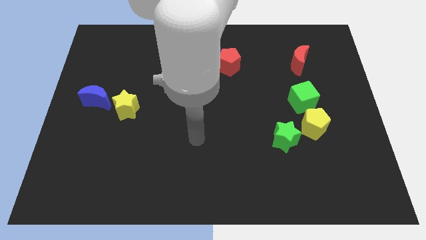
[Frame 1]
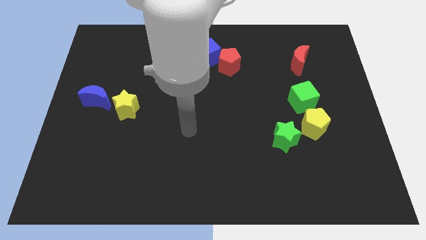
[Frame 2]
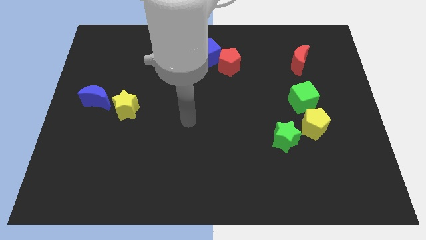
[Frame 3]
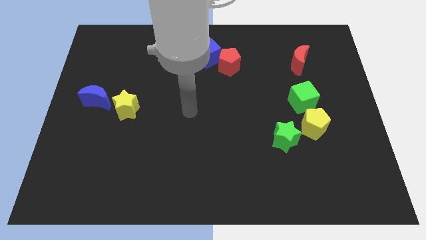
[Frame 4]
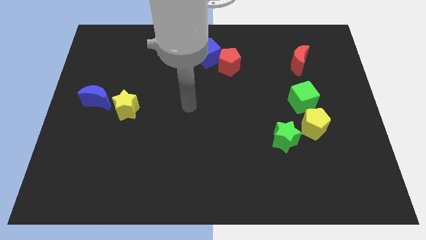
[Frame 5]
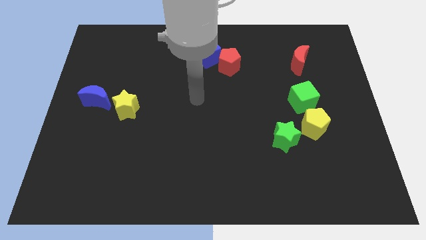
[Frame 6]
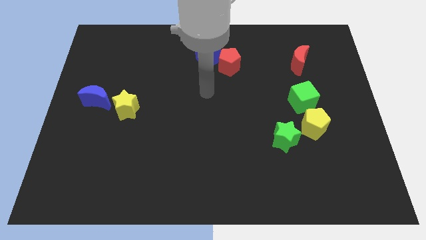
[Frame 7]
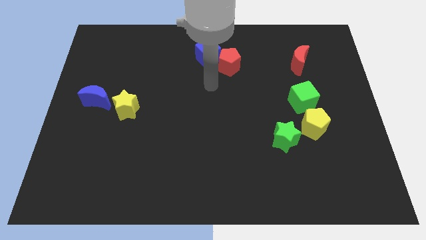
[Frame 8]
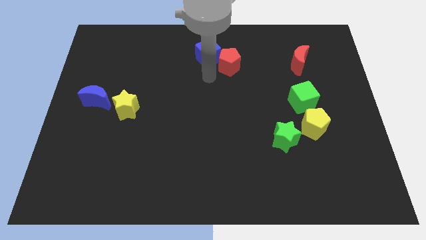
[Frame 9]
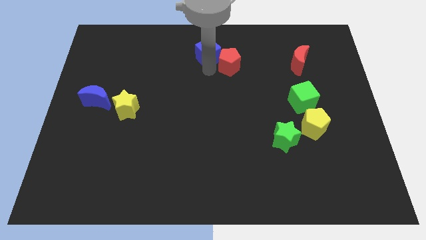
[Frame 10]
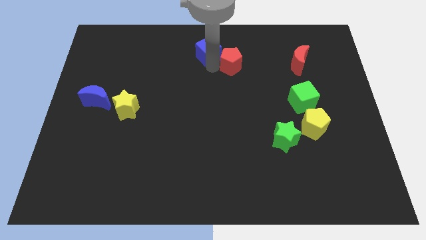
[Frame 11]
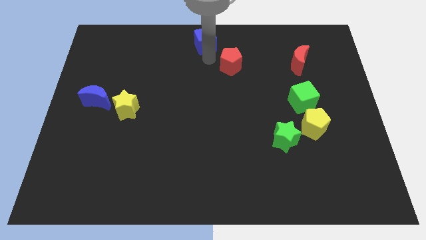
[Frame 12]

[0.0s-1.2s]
pull the red pentagon apart from the blue cube

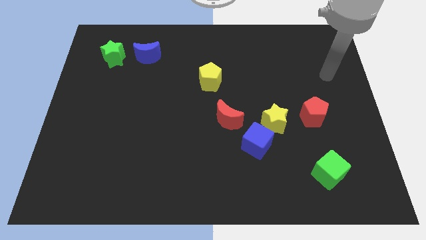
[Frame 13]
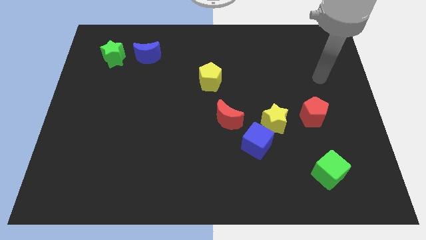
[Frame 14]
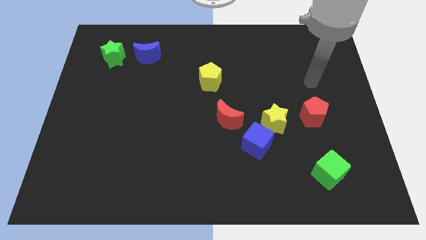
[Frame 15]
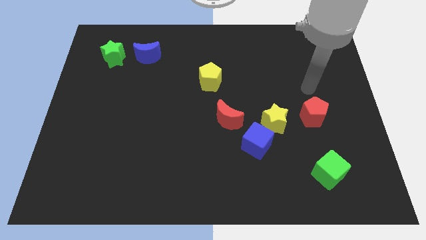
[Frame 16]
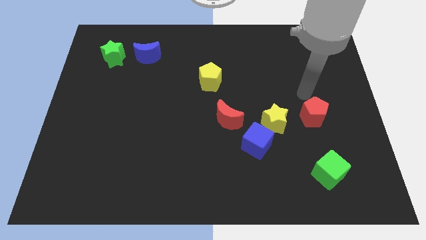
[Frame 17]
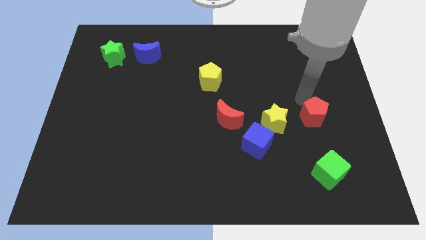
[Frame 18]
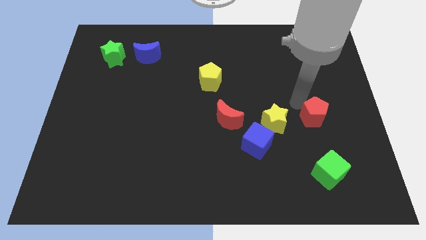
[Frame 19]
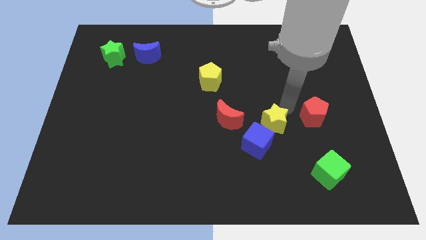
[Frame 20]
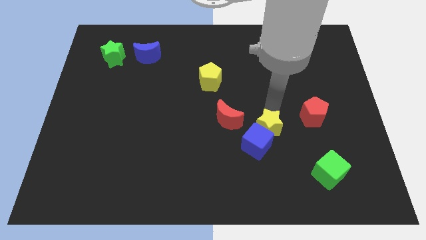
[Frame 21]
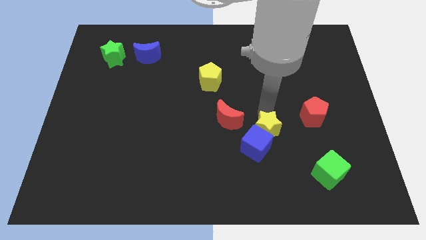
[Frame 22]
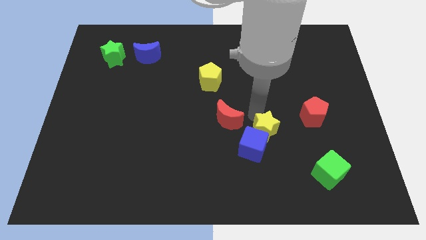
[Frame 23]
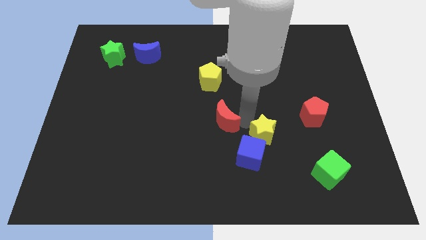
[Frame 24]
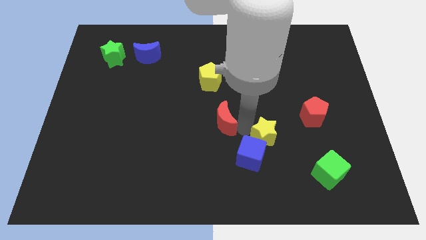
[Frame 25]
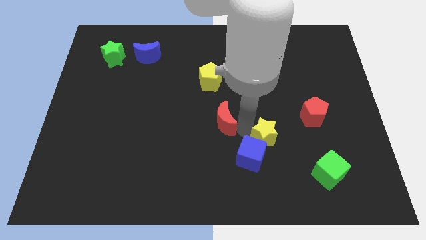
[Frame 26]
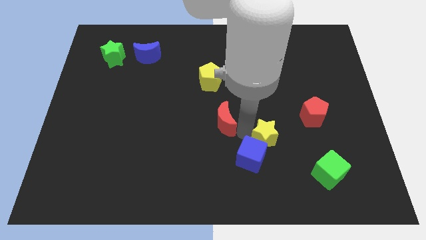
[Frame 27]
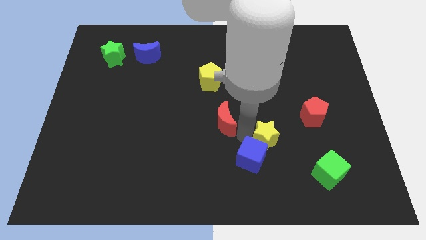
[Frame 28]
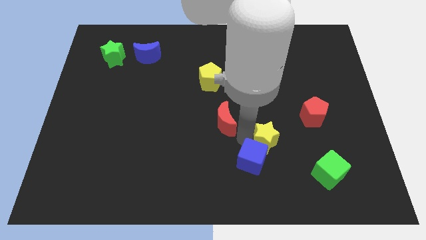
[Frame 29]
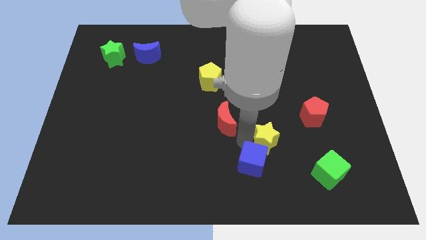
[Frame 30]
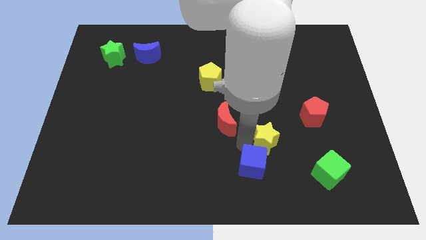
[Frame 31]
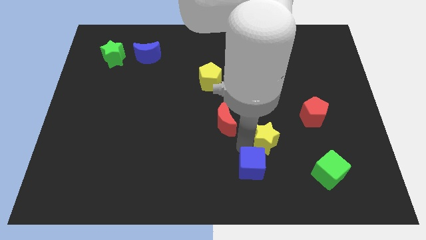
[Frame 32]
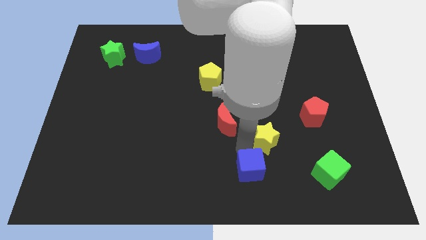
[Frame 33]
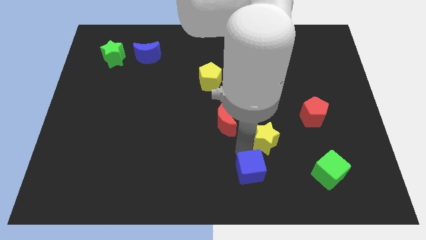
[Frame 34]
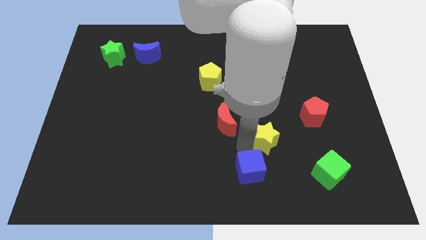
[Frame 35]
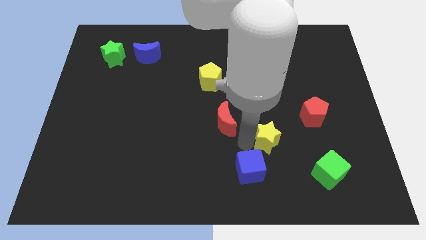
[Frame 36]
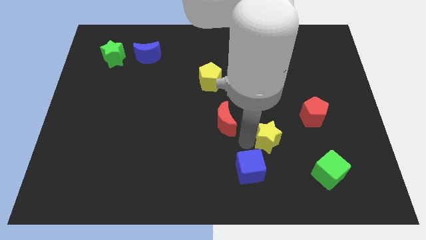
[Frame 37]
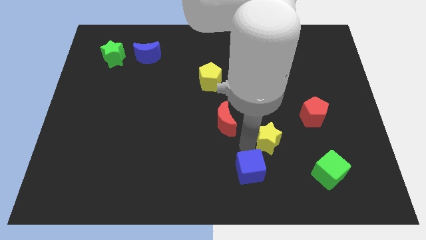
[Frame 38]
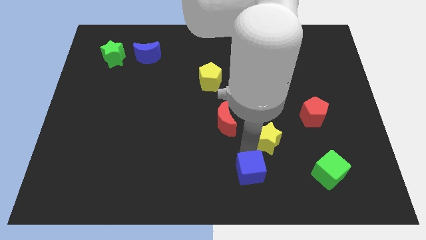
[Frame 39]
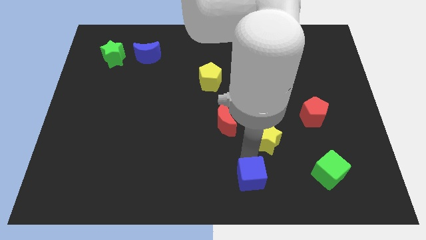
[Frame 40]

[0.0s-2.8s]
move the blue cube away from the yellow star and red moon

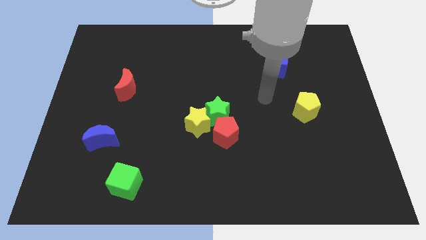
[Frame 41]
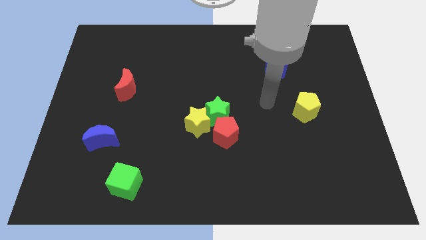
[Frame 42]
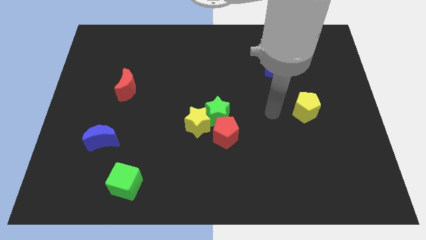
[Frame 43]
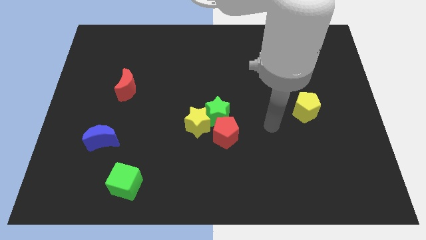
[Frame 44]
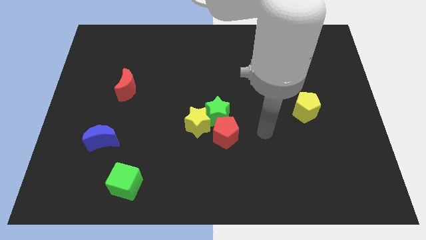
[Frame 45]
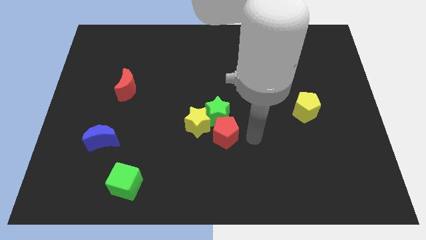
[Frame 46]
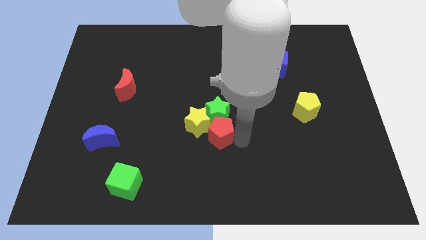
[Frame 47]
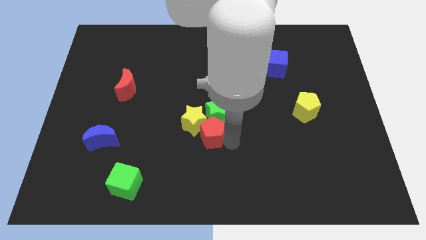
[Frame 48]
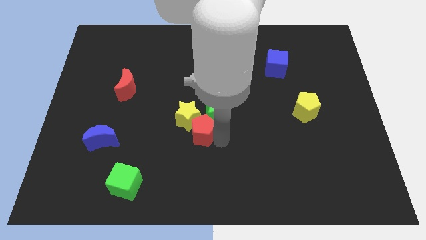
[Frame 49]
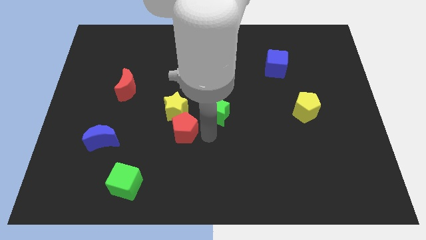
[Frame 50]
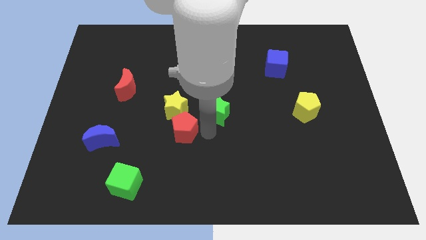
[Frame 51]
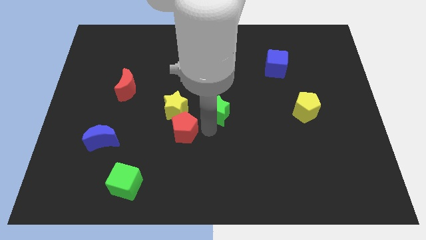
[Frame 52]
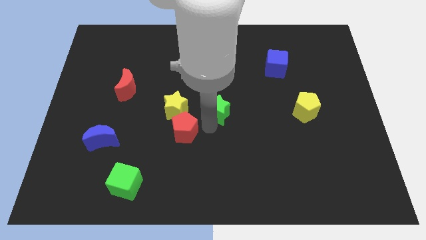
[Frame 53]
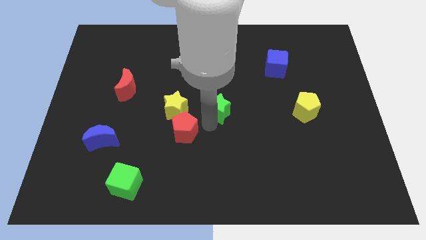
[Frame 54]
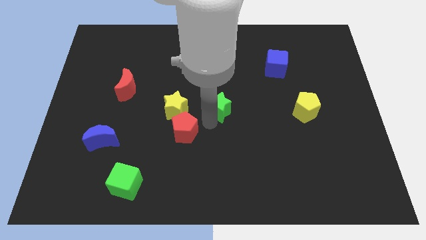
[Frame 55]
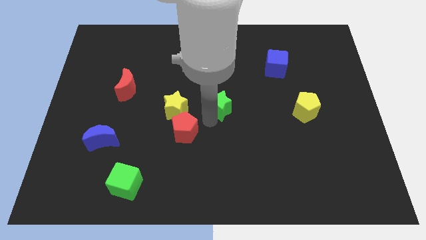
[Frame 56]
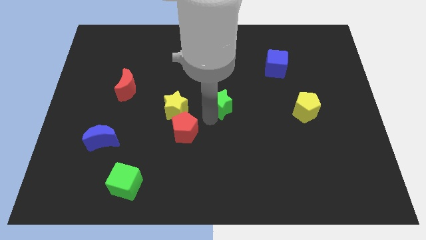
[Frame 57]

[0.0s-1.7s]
separate the green star from the yellow star and red pentagon

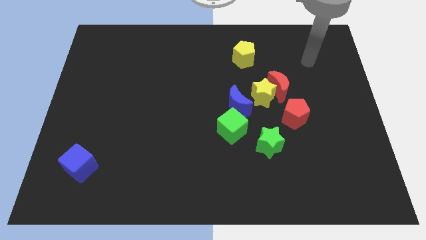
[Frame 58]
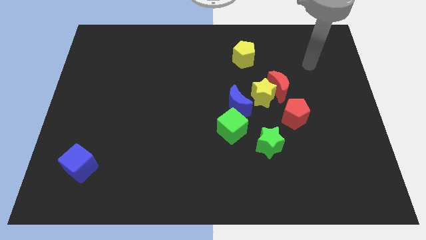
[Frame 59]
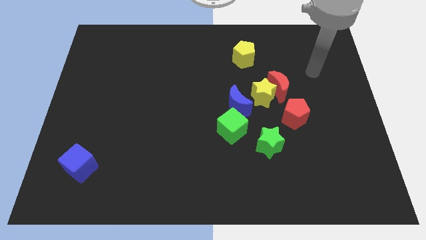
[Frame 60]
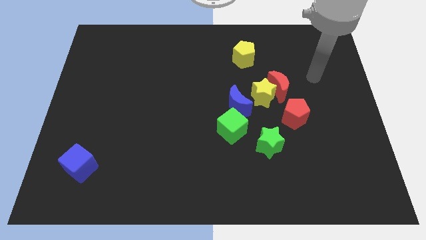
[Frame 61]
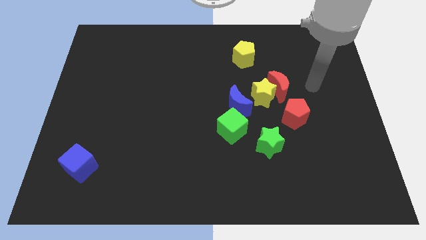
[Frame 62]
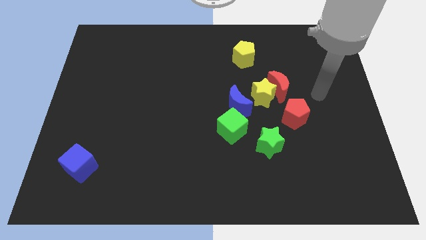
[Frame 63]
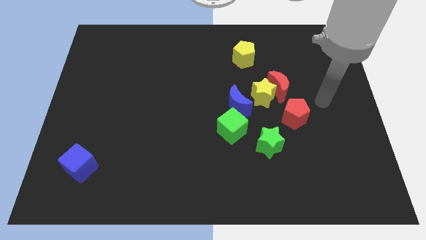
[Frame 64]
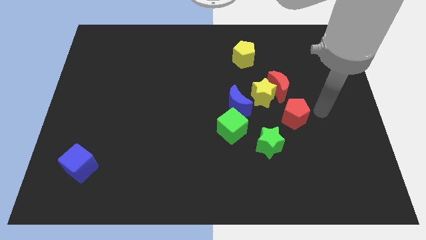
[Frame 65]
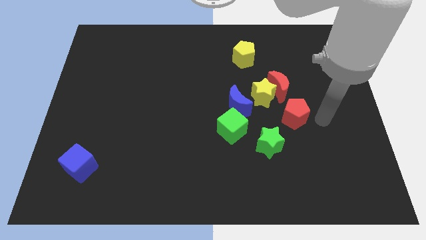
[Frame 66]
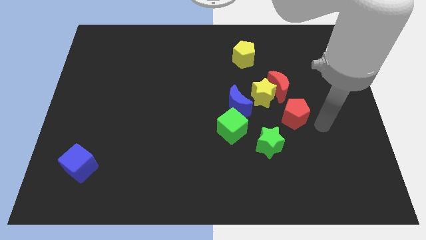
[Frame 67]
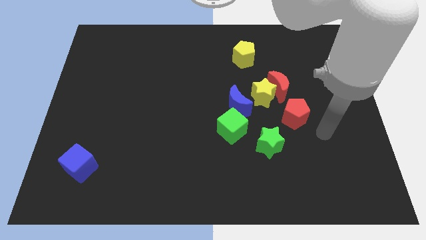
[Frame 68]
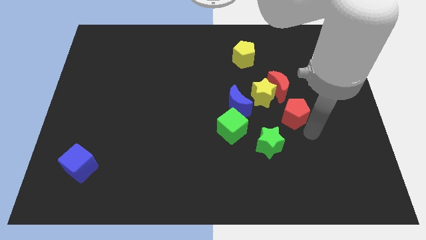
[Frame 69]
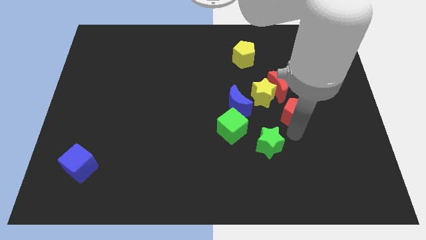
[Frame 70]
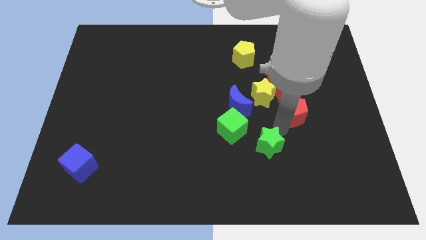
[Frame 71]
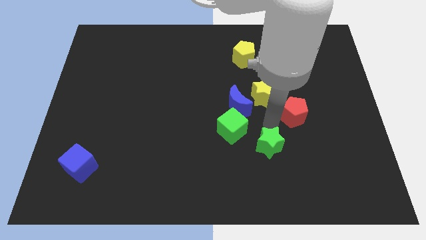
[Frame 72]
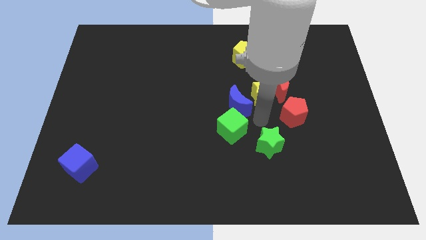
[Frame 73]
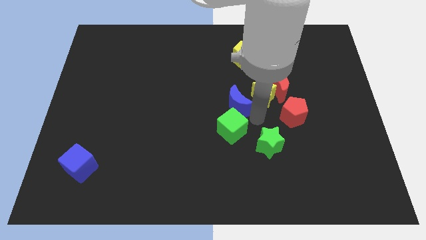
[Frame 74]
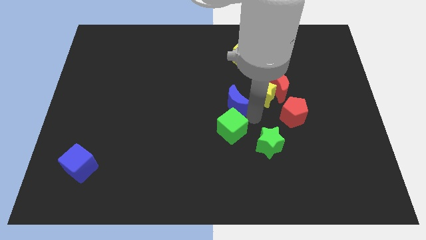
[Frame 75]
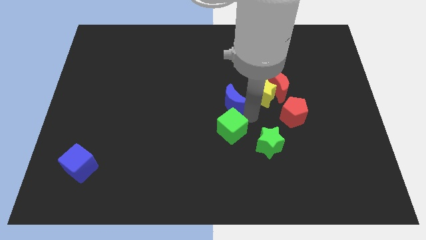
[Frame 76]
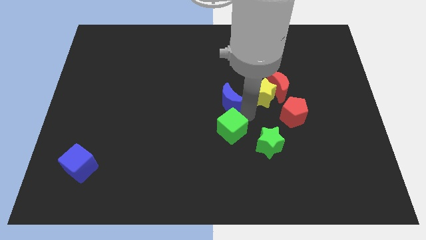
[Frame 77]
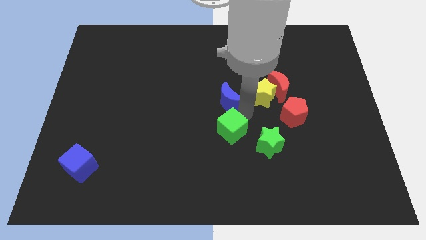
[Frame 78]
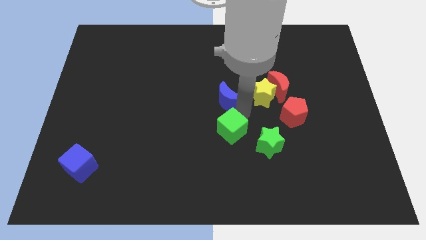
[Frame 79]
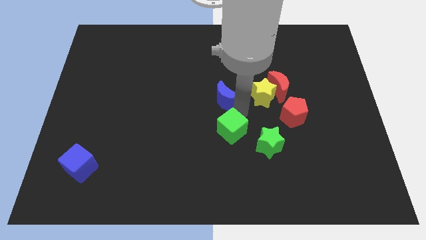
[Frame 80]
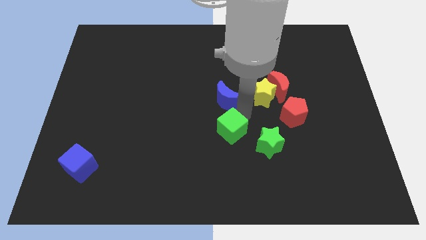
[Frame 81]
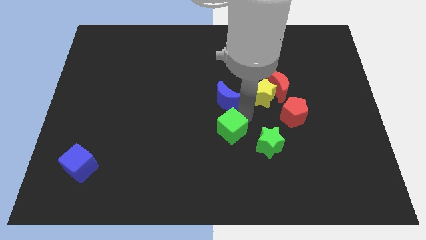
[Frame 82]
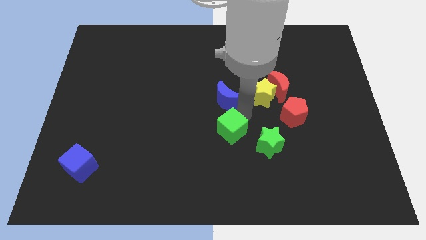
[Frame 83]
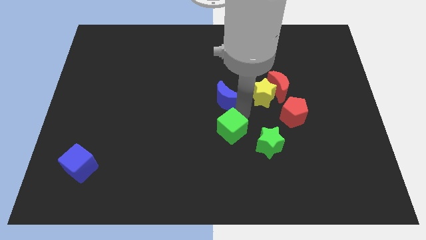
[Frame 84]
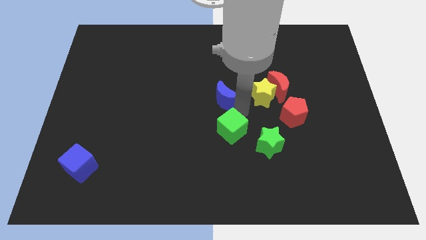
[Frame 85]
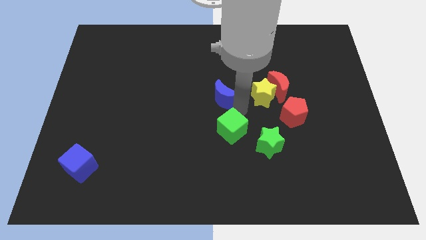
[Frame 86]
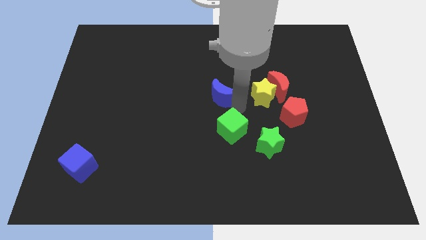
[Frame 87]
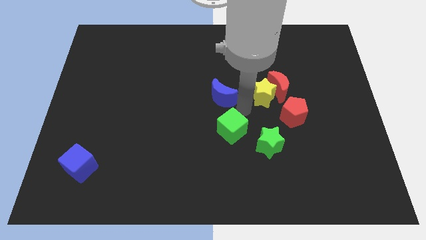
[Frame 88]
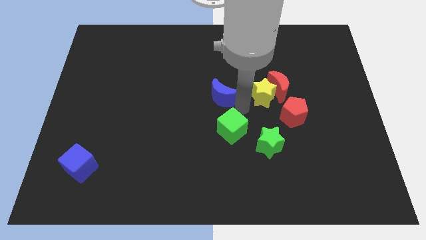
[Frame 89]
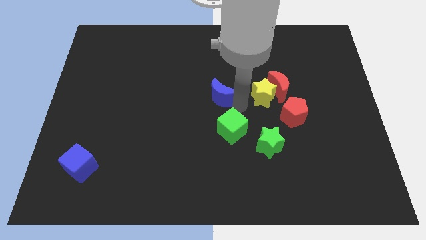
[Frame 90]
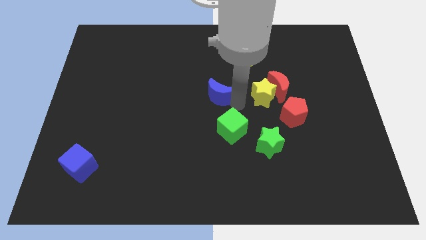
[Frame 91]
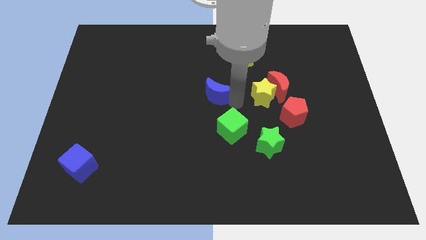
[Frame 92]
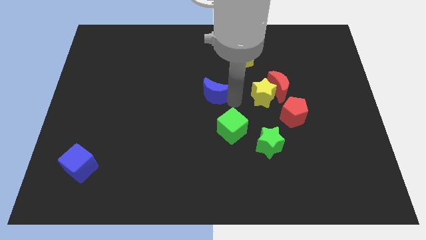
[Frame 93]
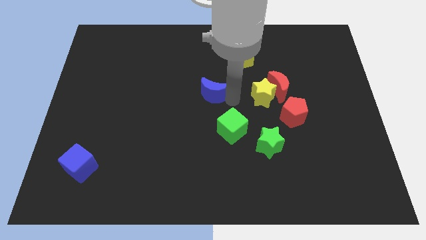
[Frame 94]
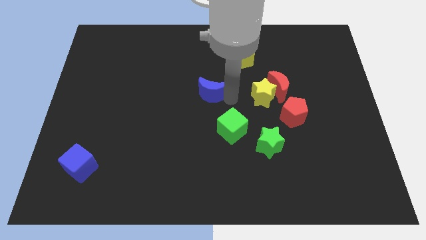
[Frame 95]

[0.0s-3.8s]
move the blue moon away from the yellow star and green cube
